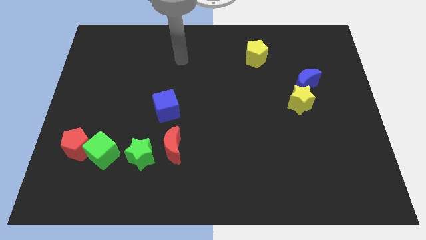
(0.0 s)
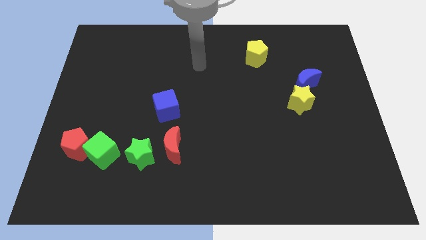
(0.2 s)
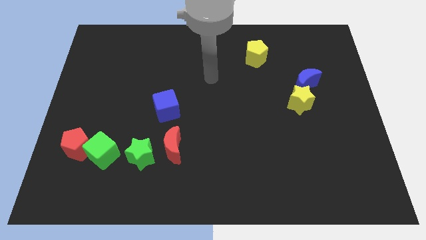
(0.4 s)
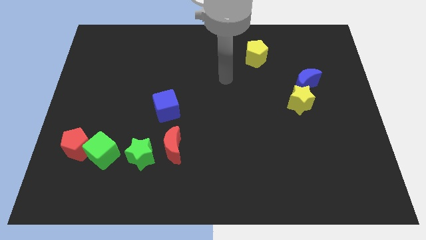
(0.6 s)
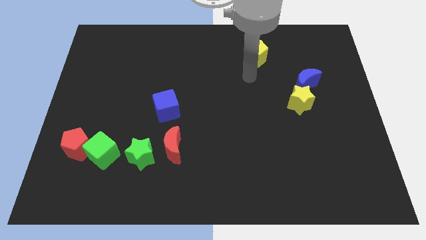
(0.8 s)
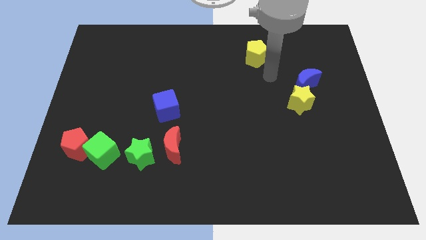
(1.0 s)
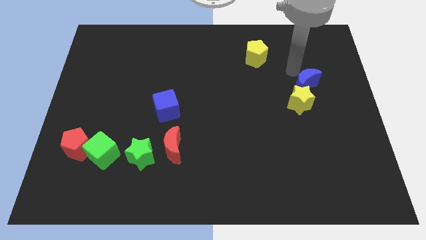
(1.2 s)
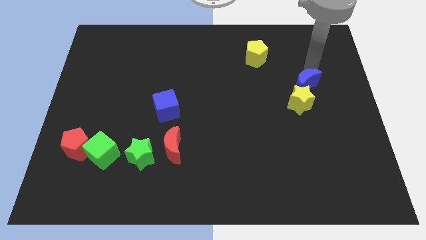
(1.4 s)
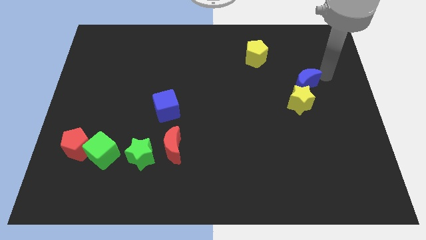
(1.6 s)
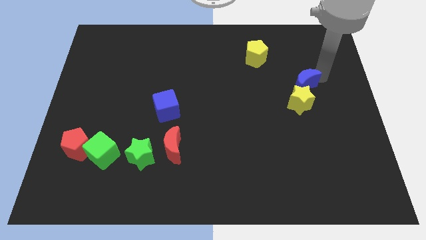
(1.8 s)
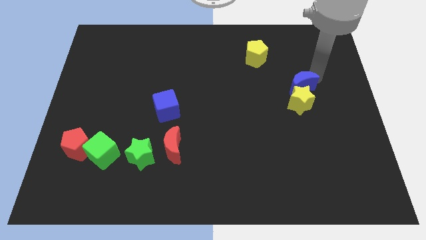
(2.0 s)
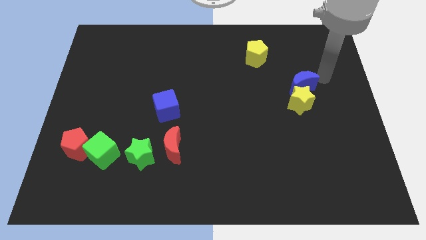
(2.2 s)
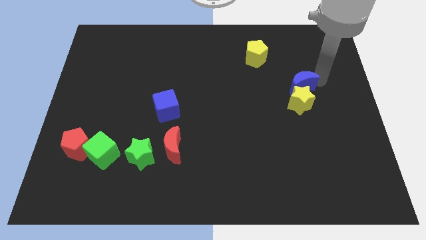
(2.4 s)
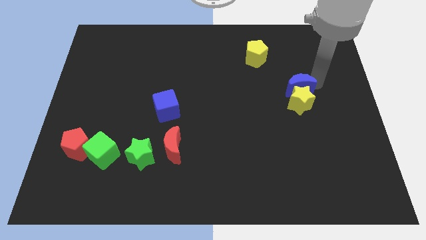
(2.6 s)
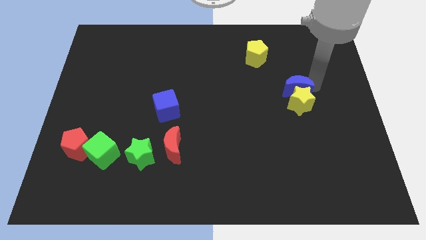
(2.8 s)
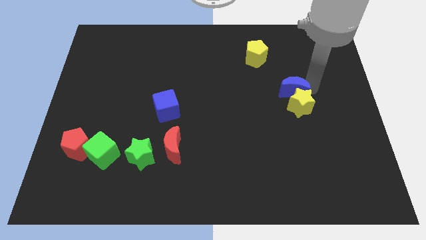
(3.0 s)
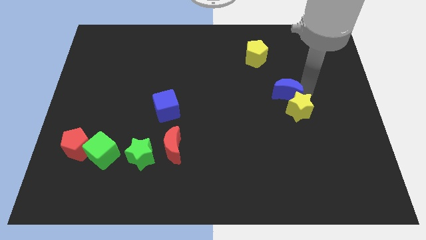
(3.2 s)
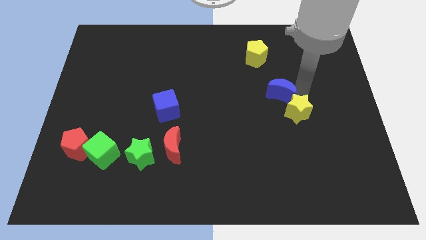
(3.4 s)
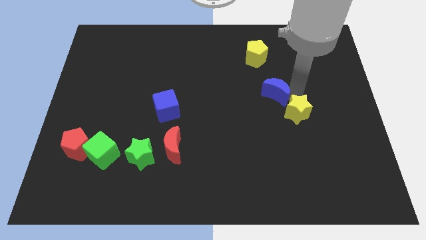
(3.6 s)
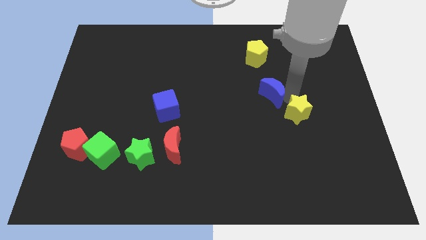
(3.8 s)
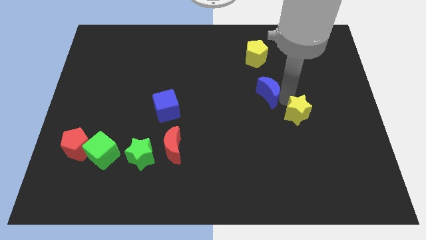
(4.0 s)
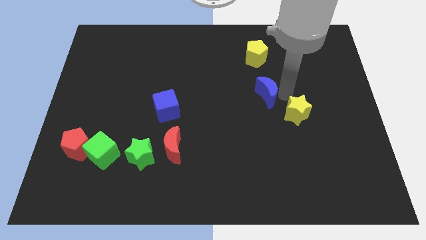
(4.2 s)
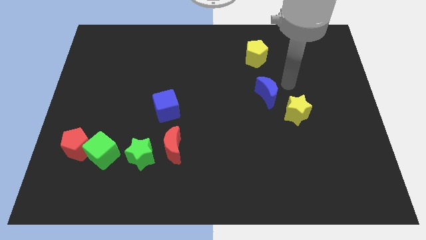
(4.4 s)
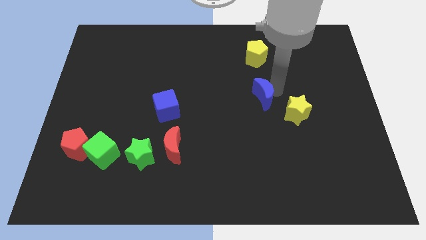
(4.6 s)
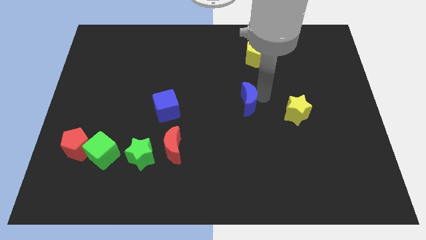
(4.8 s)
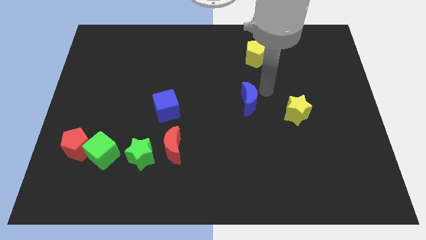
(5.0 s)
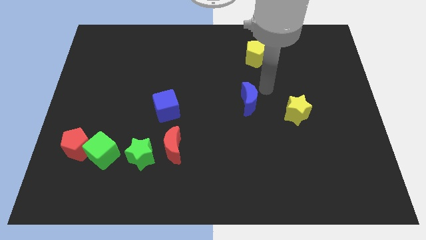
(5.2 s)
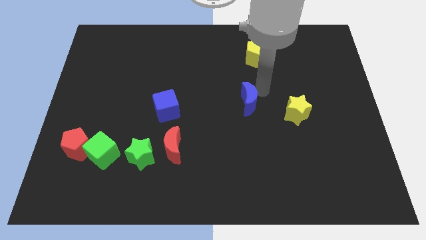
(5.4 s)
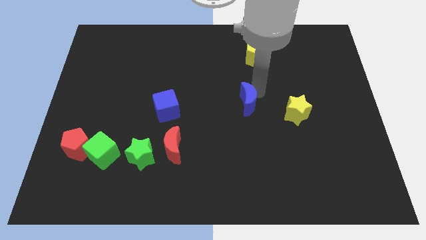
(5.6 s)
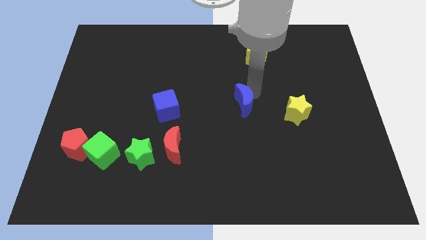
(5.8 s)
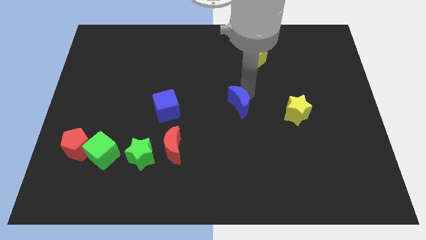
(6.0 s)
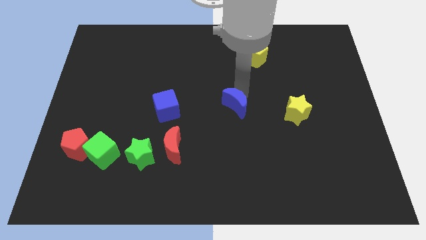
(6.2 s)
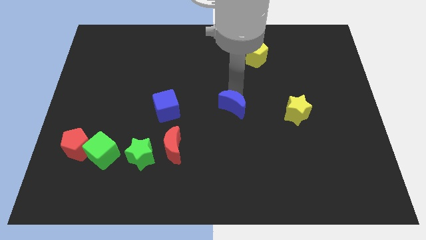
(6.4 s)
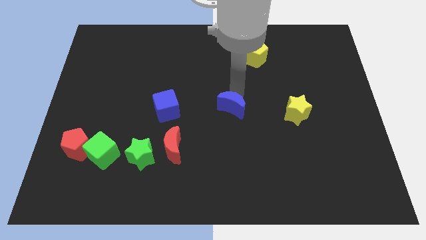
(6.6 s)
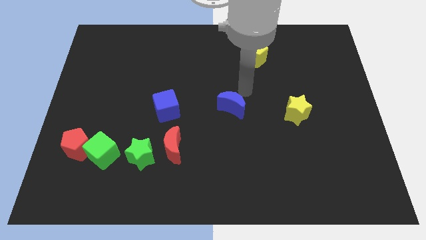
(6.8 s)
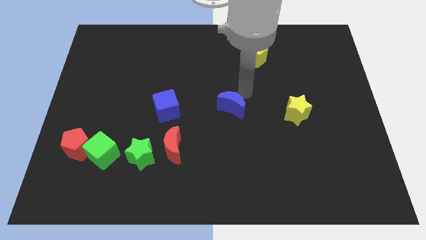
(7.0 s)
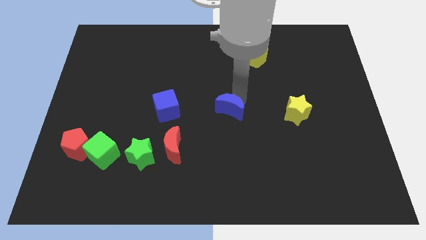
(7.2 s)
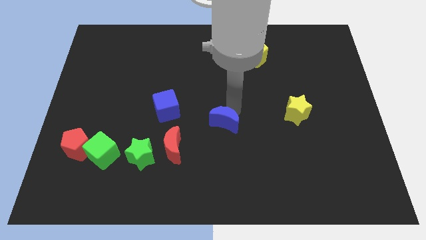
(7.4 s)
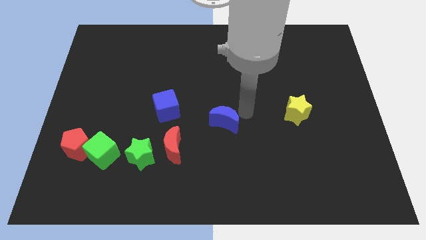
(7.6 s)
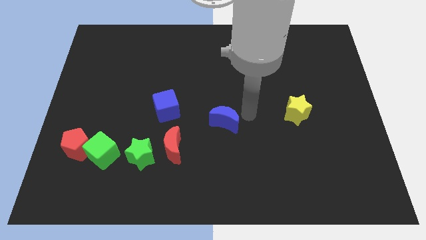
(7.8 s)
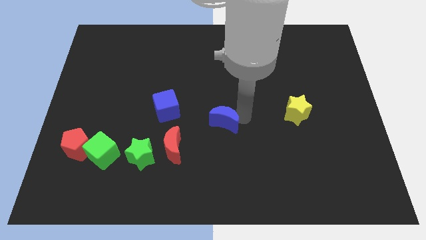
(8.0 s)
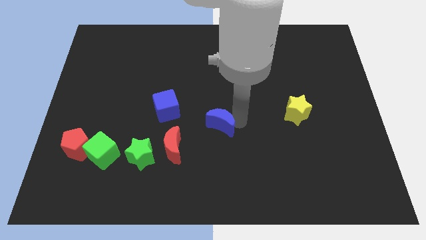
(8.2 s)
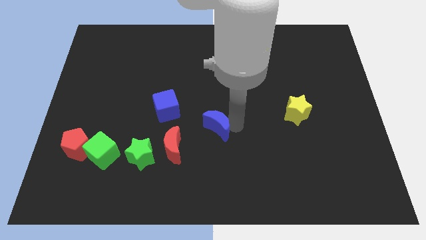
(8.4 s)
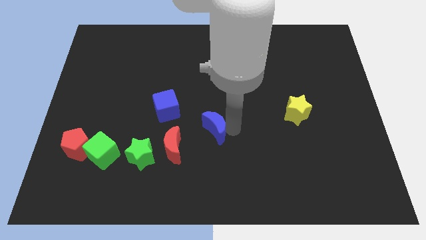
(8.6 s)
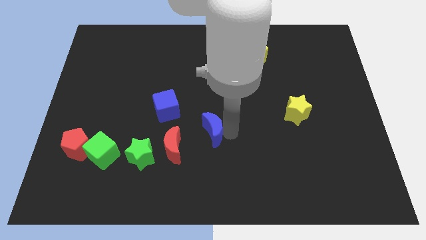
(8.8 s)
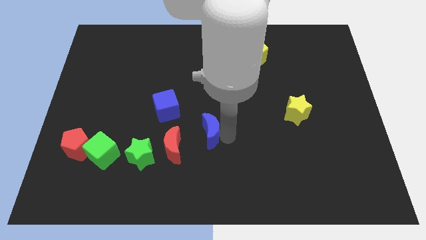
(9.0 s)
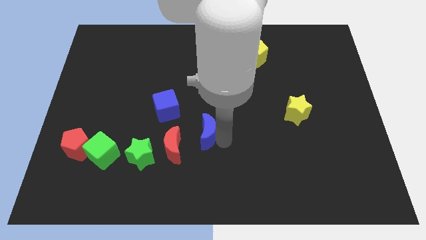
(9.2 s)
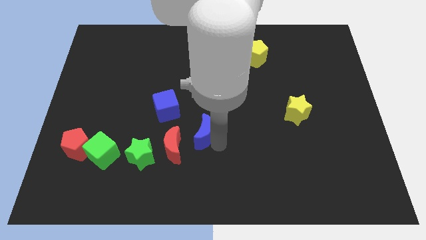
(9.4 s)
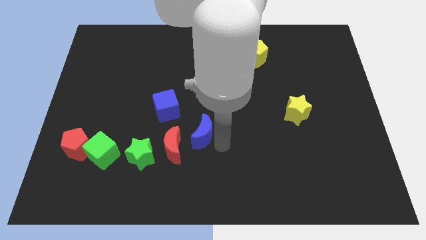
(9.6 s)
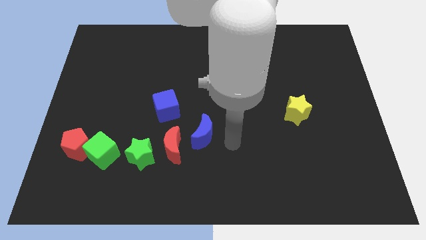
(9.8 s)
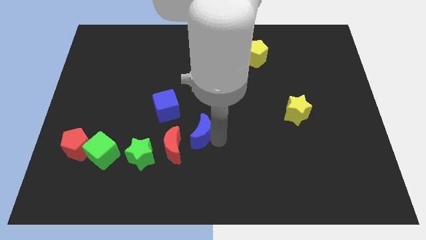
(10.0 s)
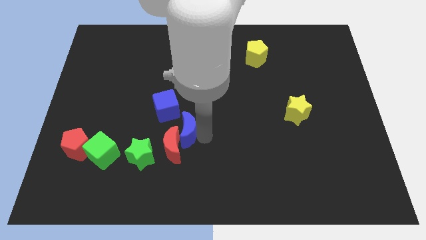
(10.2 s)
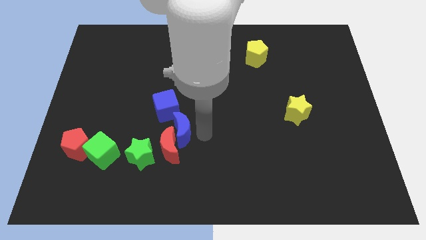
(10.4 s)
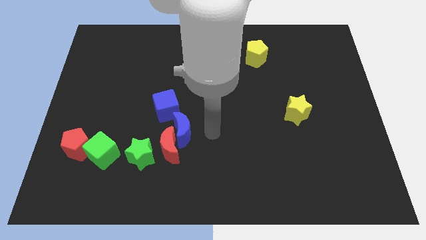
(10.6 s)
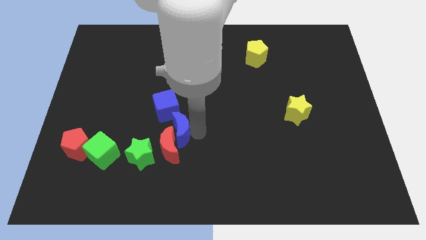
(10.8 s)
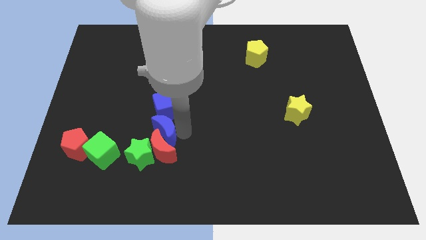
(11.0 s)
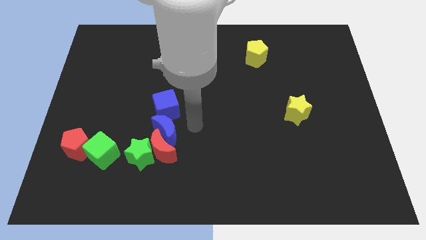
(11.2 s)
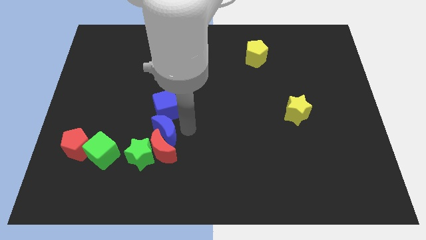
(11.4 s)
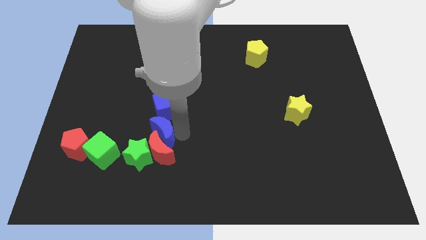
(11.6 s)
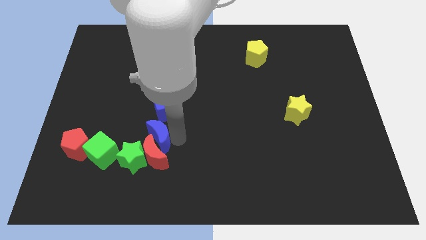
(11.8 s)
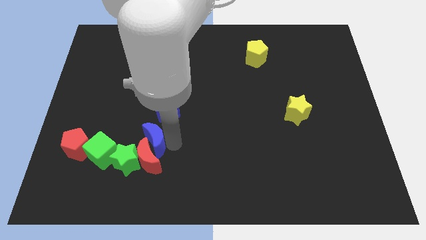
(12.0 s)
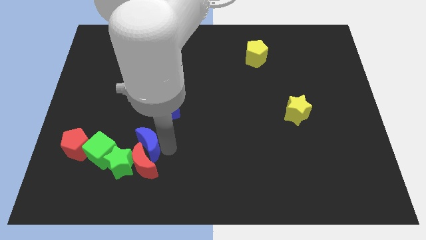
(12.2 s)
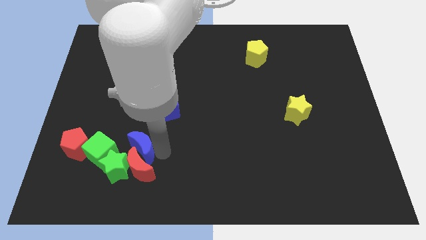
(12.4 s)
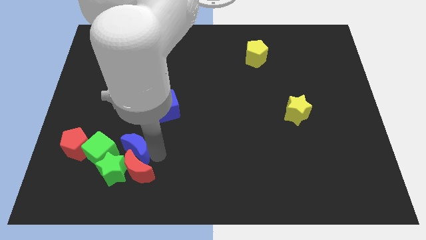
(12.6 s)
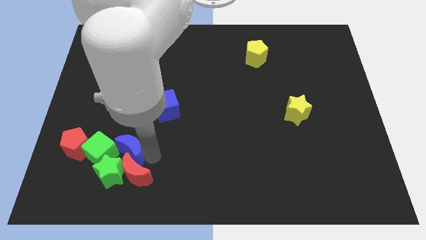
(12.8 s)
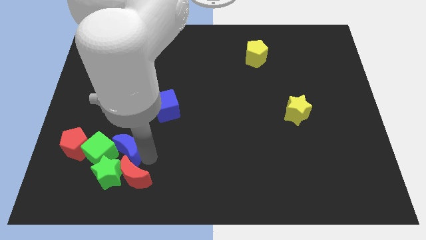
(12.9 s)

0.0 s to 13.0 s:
put the blue moon to the green cube

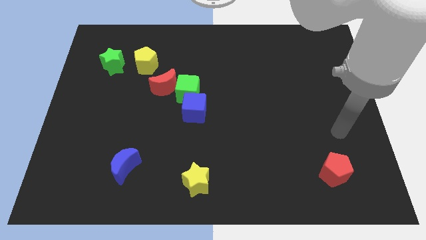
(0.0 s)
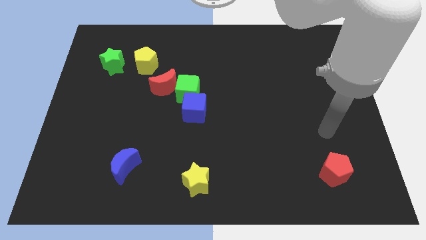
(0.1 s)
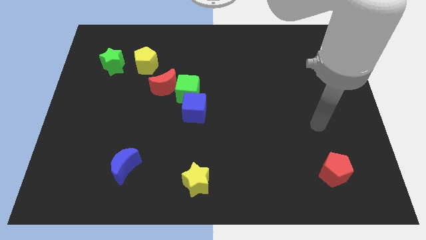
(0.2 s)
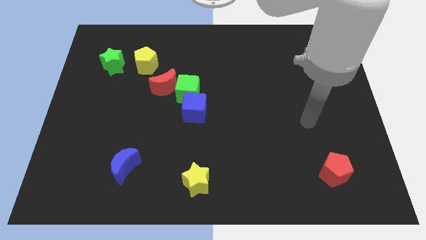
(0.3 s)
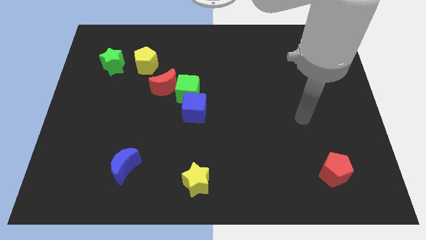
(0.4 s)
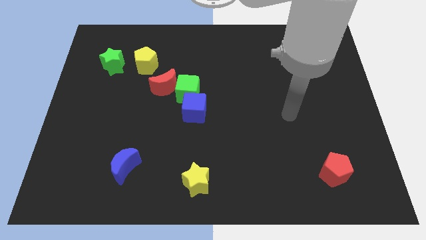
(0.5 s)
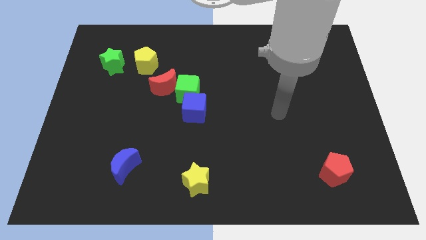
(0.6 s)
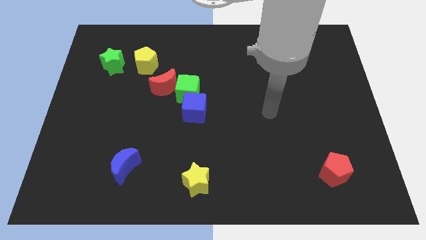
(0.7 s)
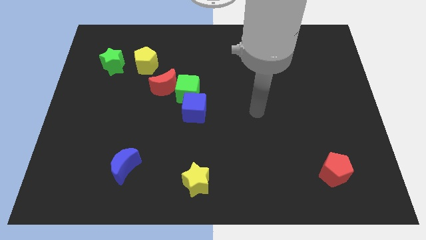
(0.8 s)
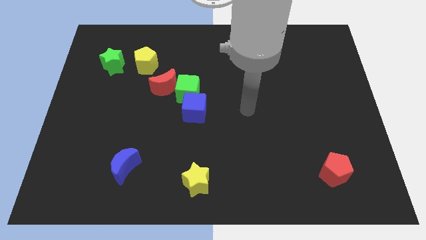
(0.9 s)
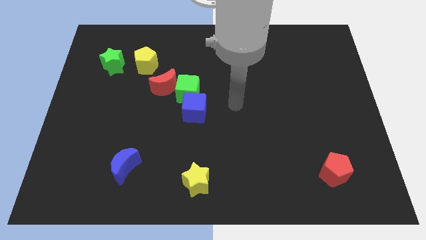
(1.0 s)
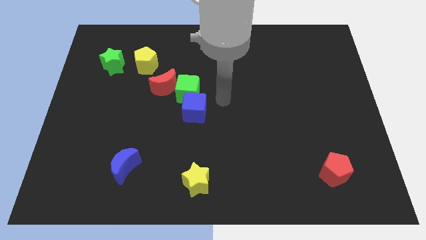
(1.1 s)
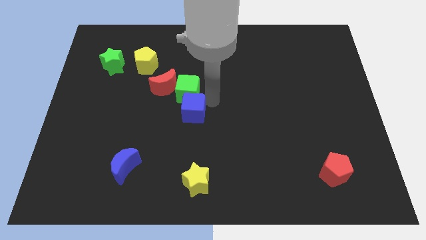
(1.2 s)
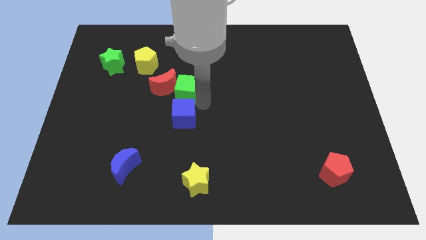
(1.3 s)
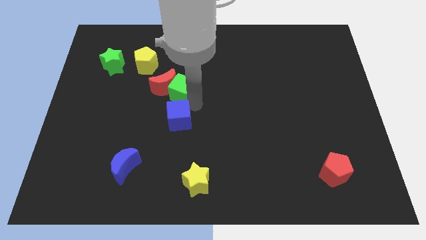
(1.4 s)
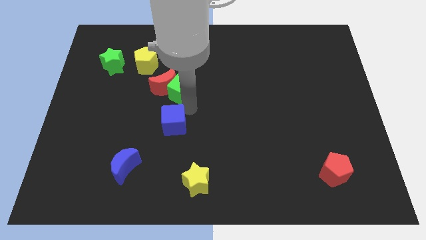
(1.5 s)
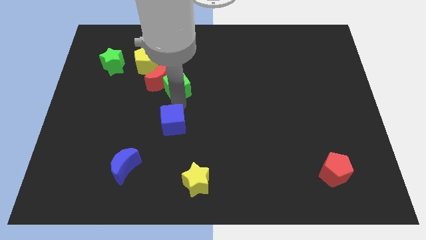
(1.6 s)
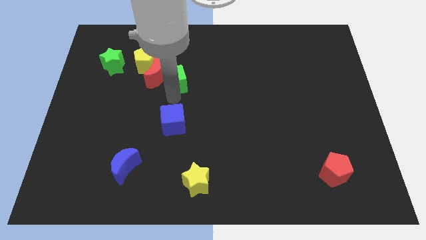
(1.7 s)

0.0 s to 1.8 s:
slide the red moon next to the yellow pentagon
